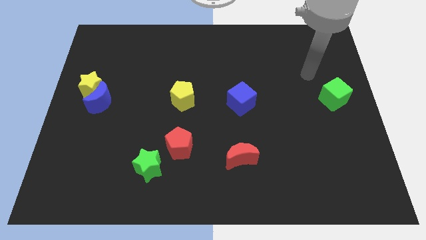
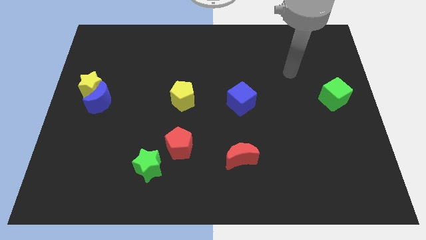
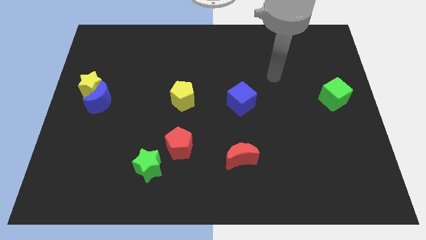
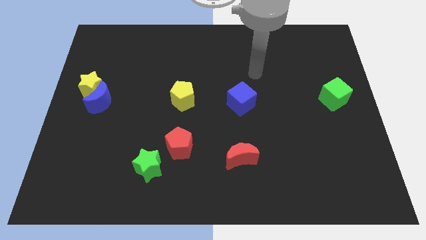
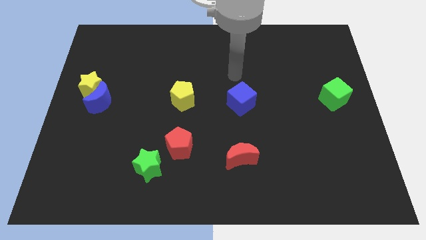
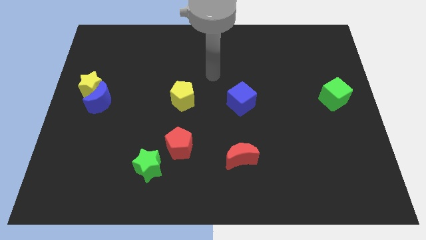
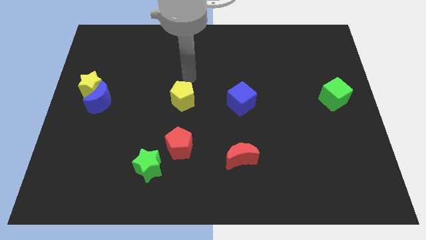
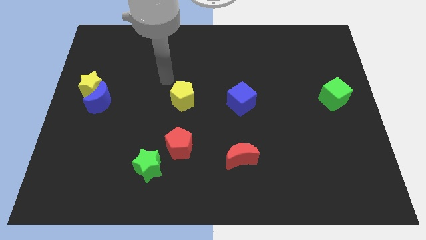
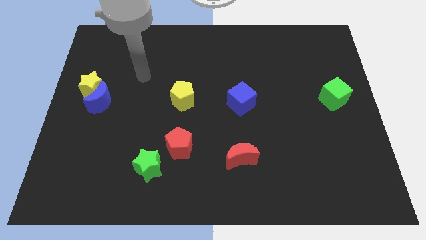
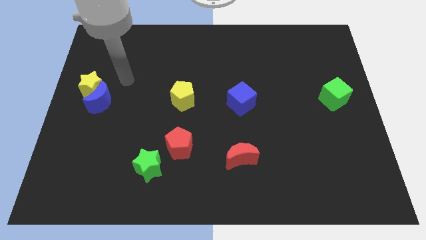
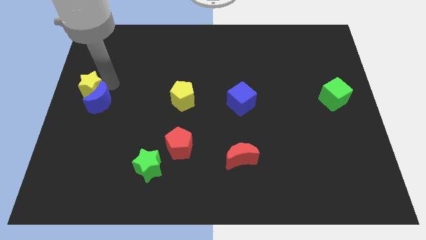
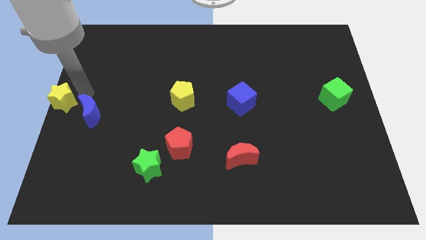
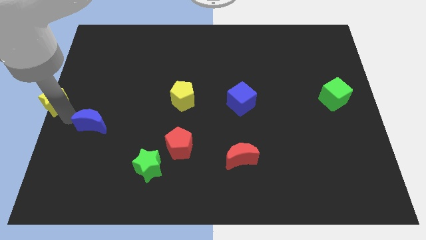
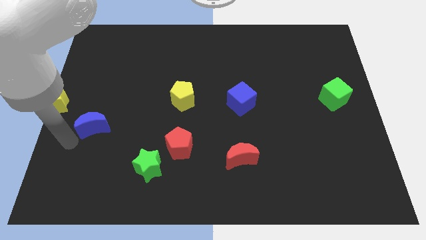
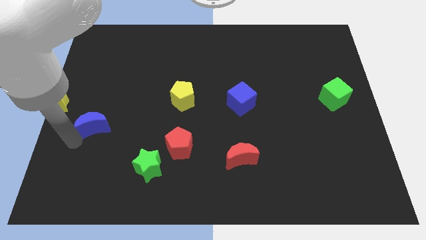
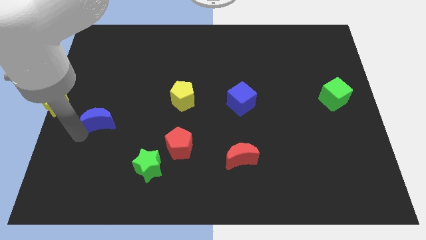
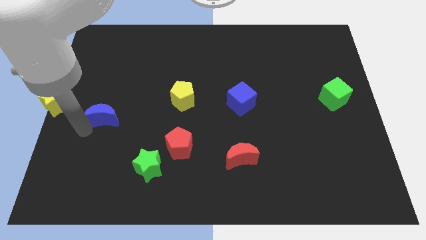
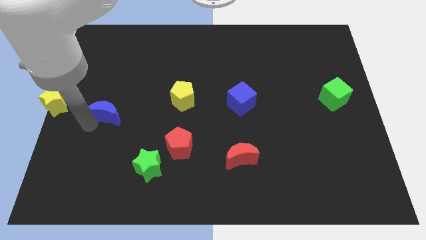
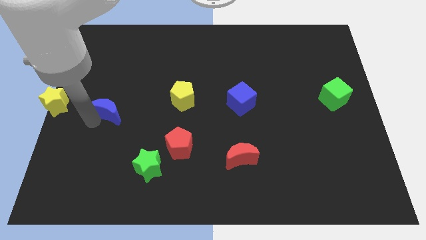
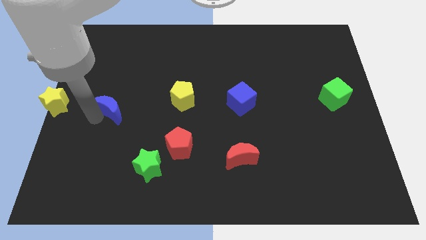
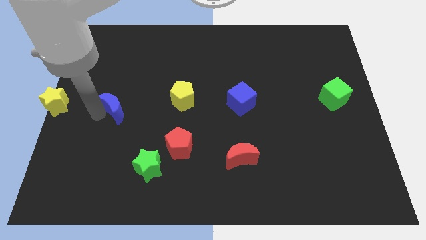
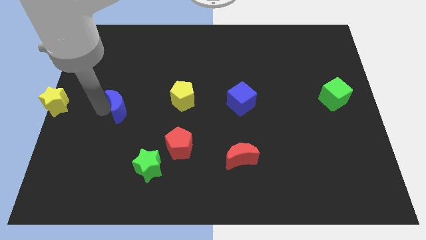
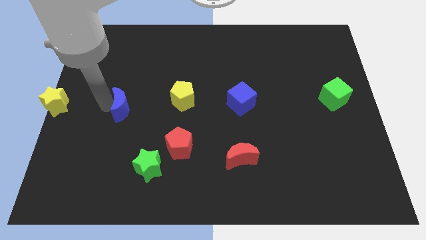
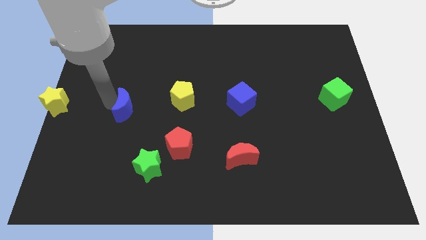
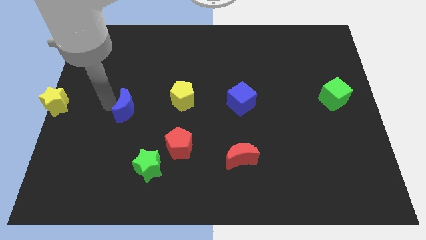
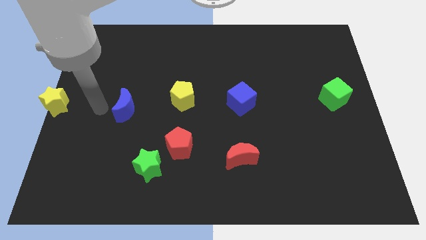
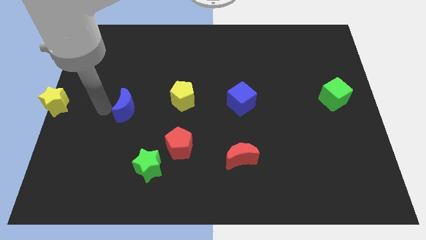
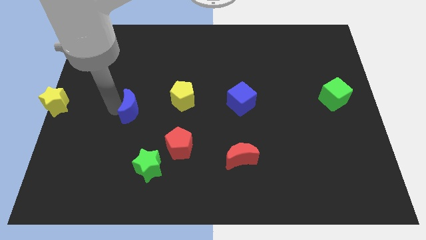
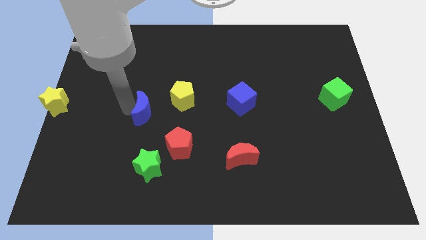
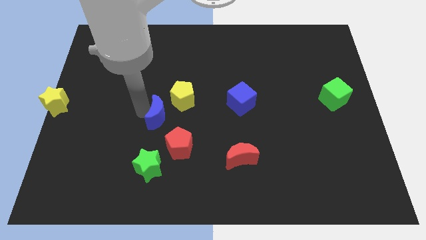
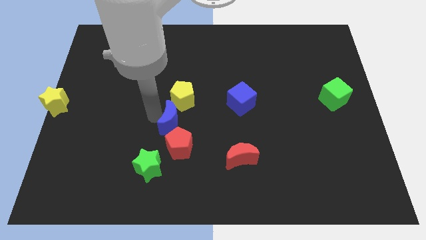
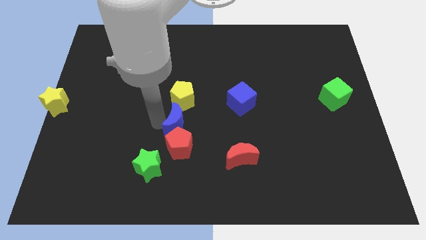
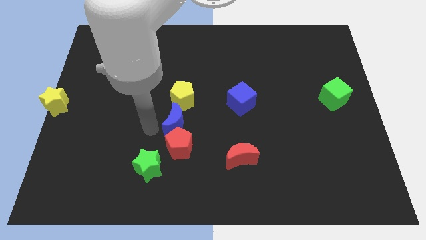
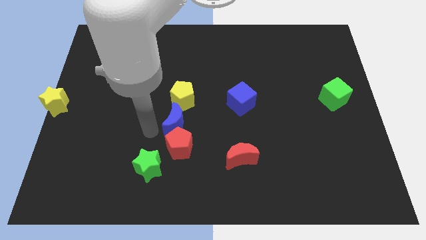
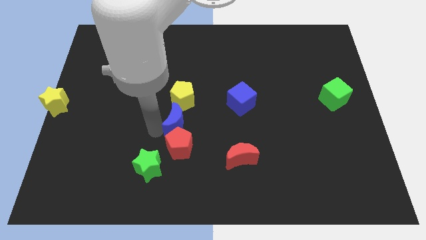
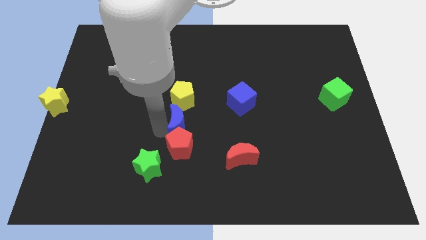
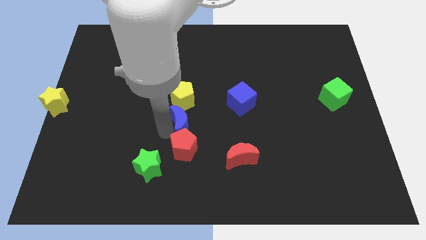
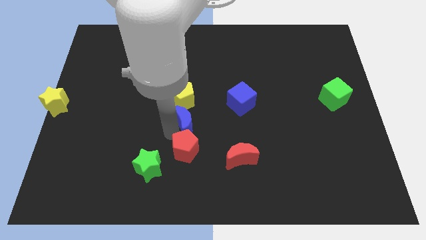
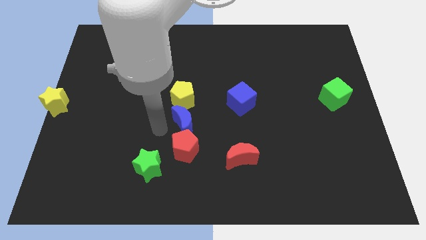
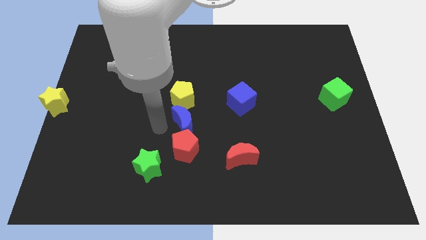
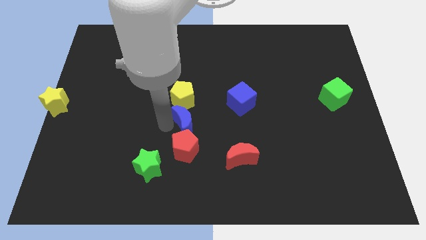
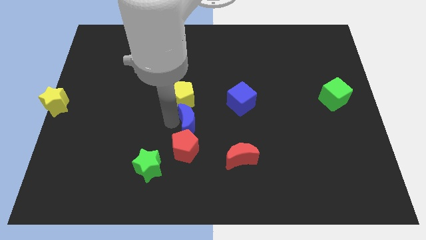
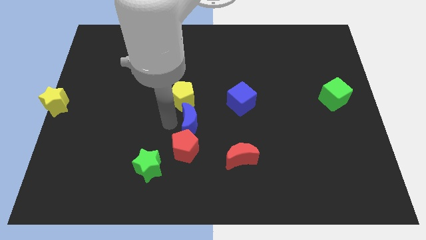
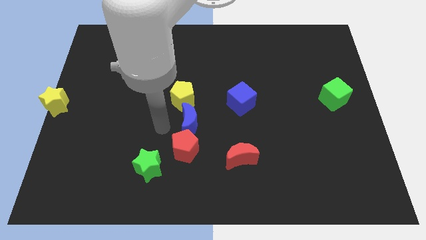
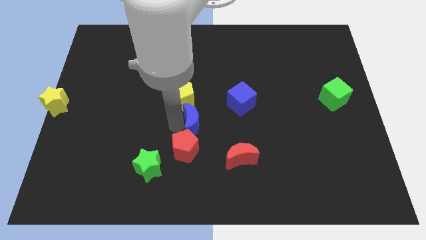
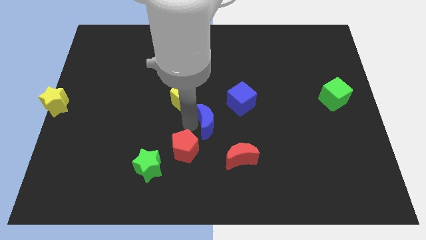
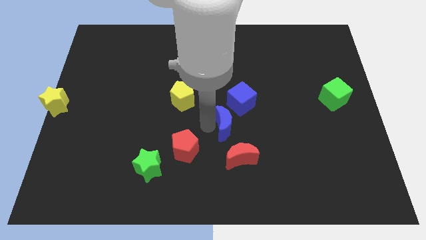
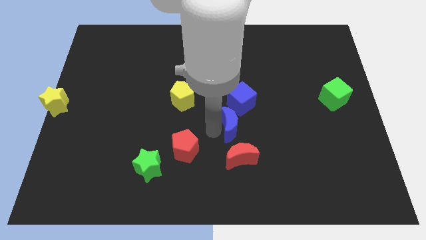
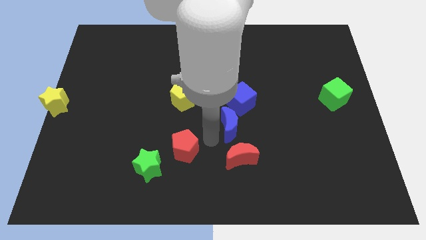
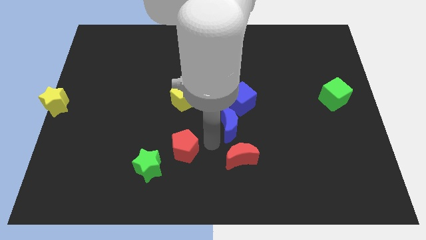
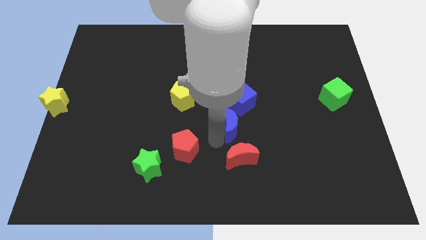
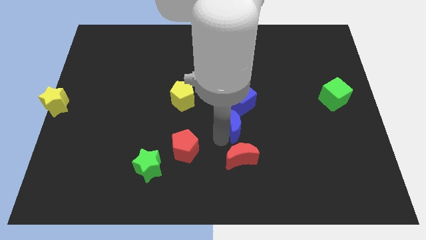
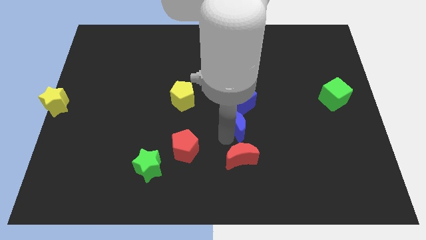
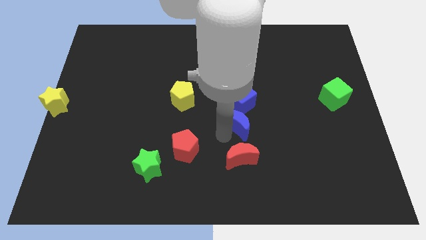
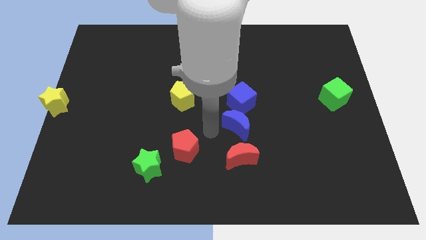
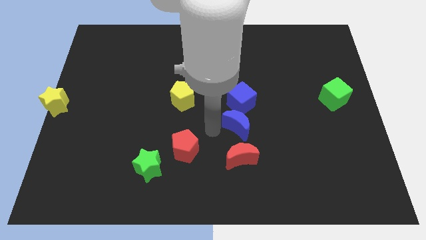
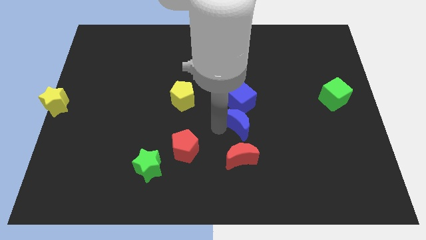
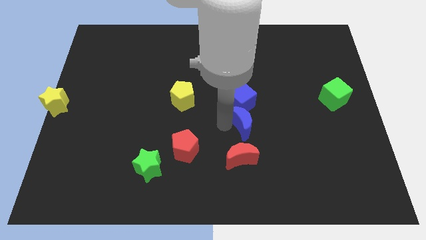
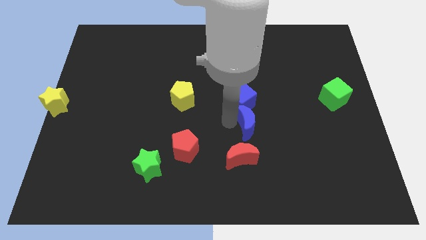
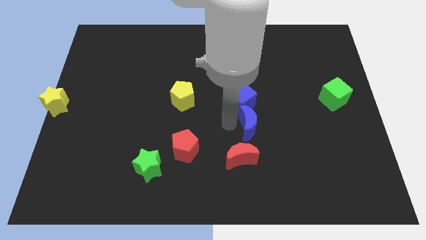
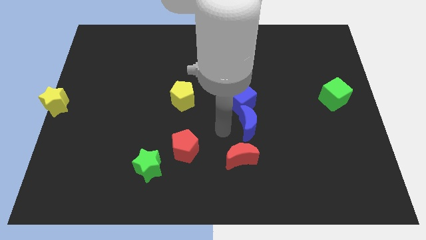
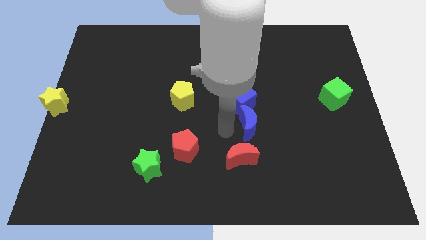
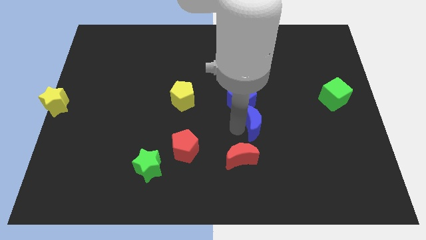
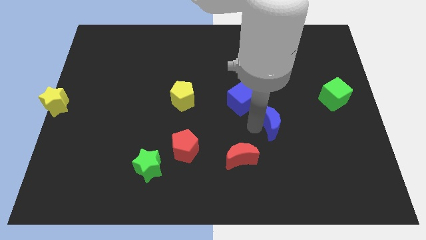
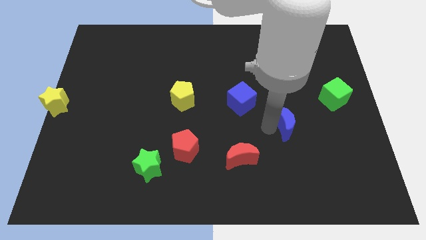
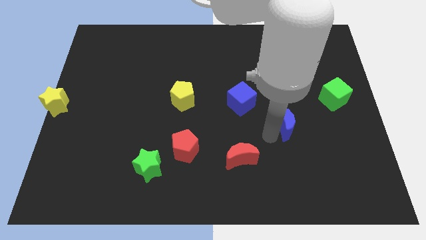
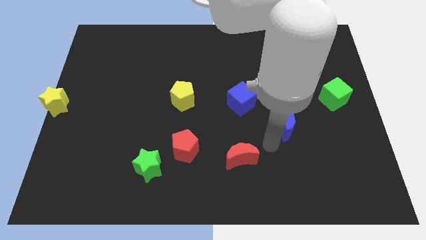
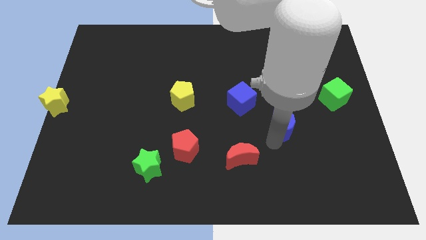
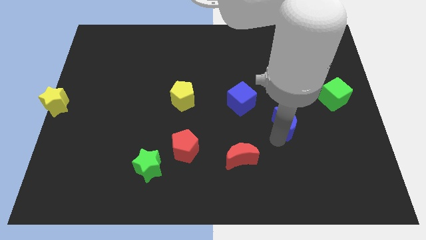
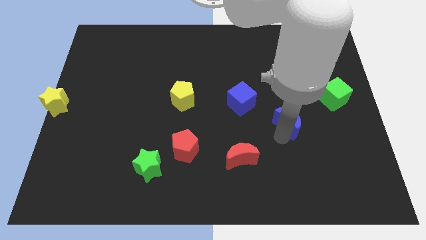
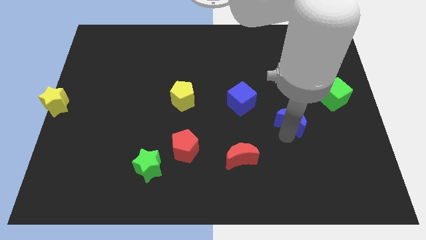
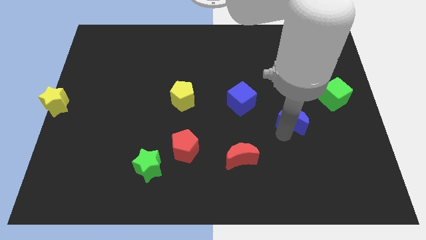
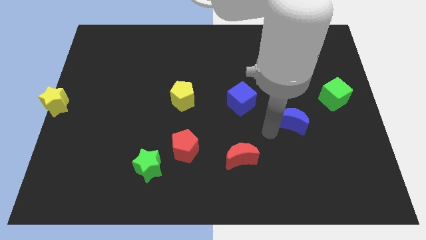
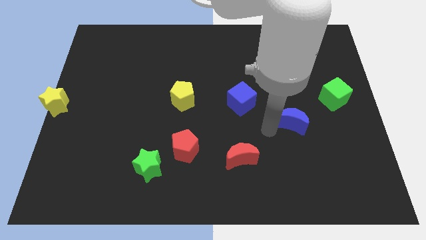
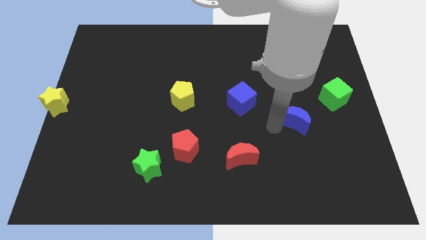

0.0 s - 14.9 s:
push the blue moon to the bottom left side of the green cube

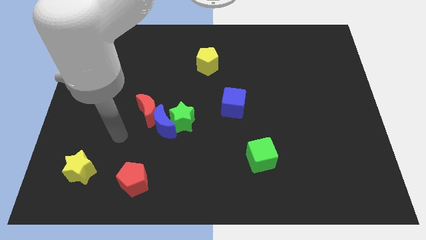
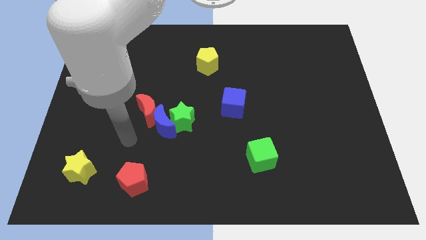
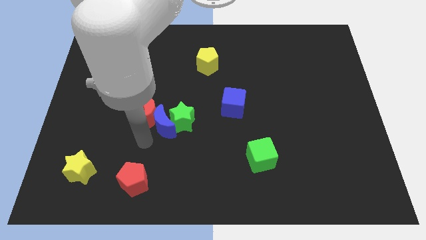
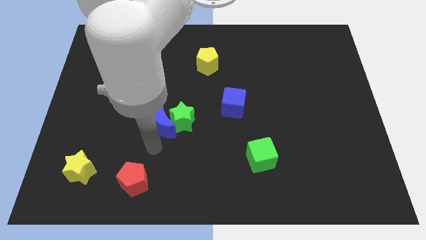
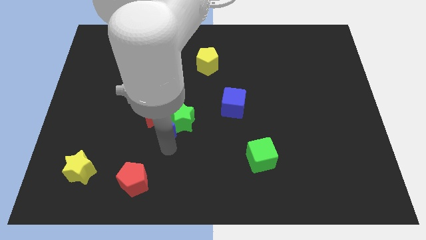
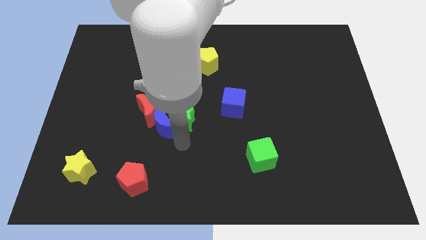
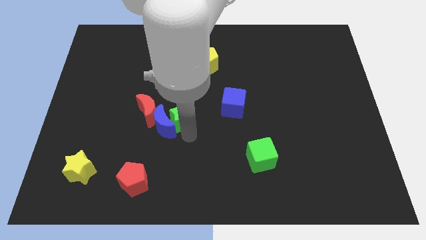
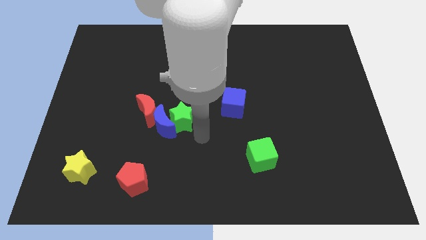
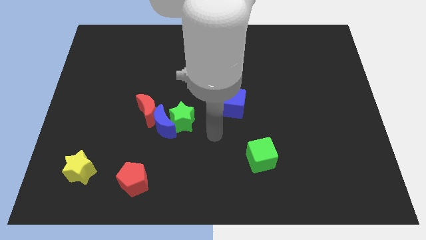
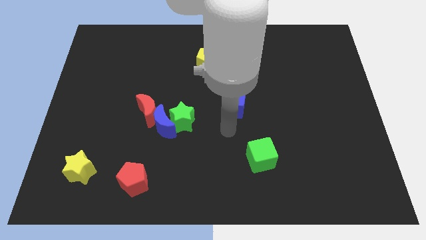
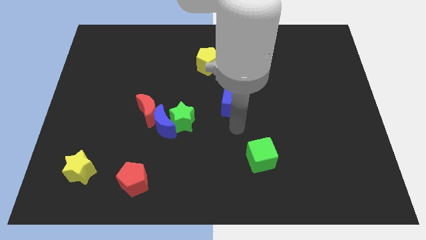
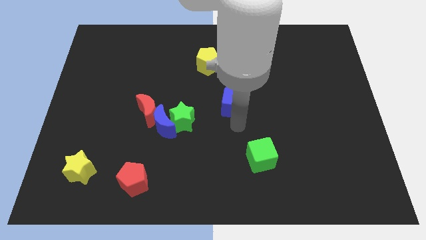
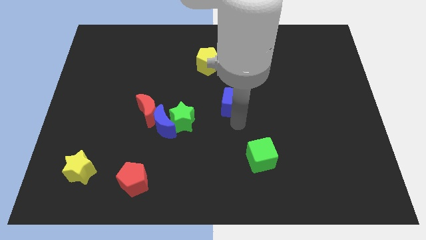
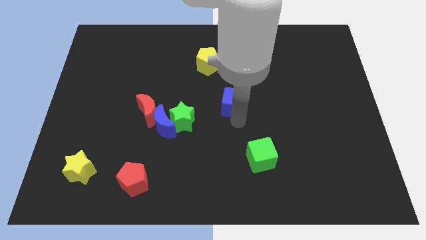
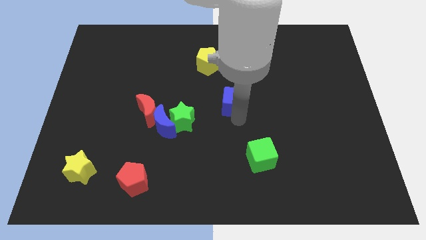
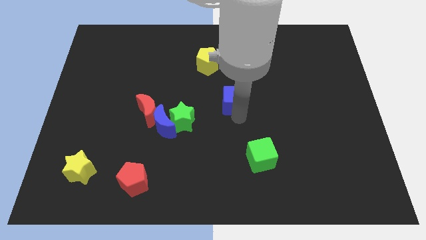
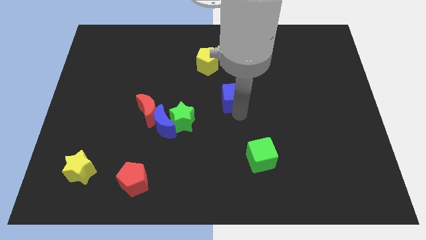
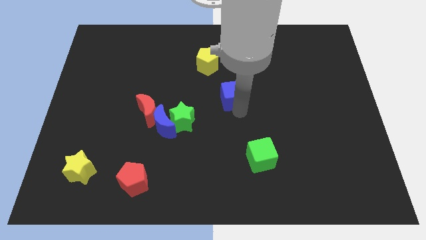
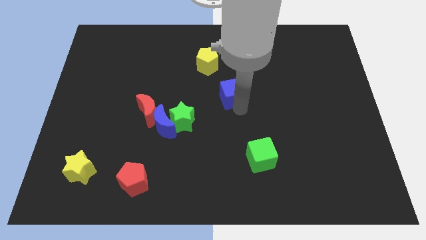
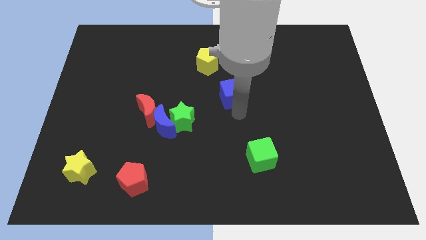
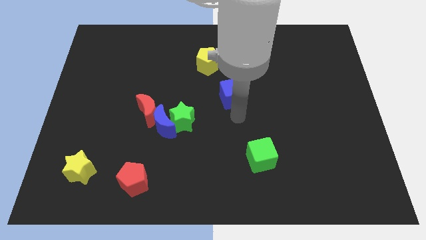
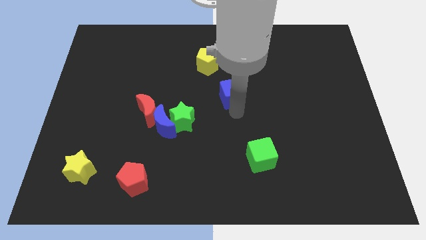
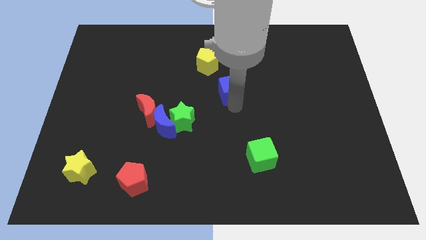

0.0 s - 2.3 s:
push the blue cube diagonally down and to the right of the yellow pentagon
